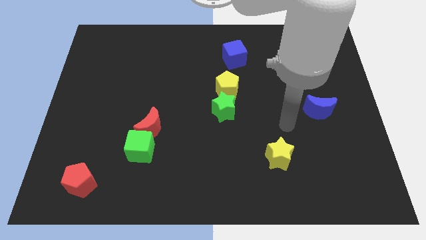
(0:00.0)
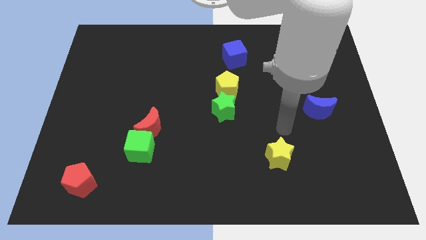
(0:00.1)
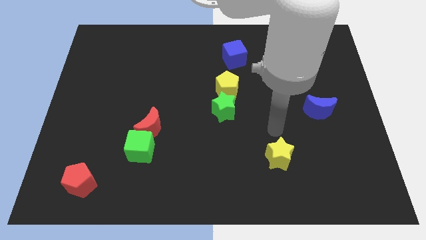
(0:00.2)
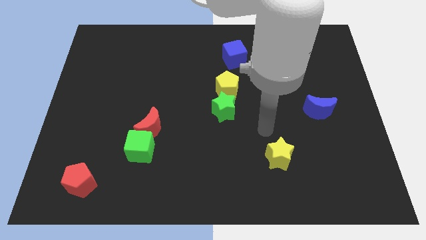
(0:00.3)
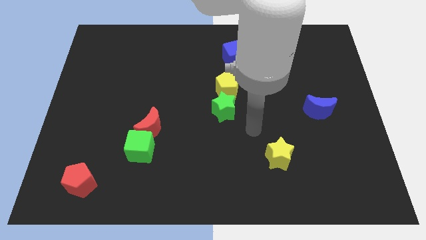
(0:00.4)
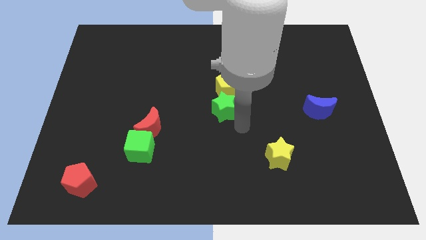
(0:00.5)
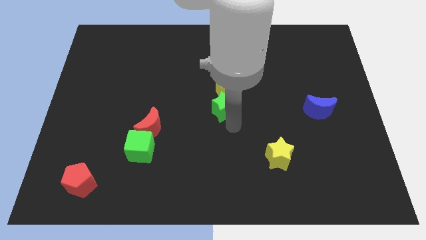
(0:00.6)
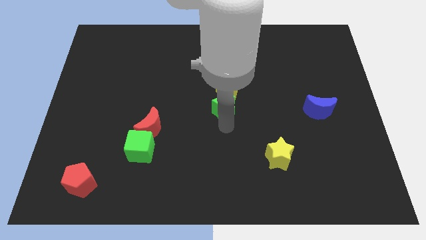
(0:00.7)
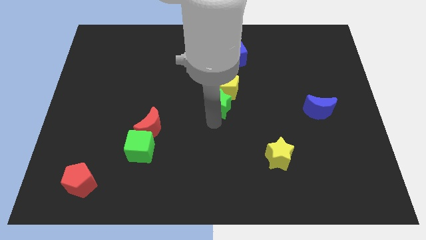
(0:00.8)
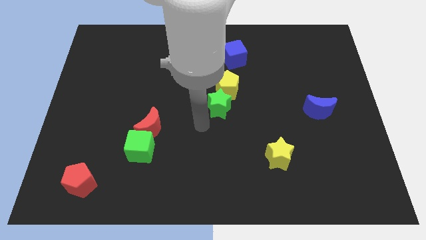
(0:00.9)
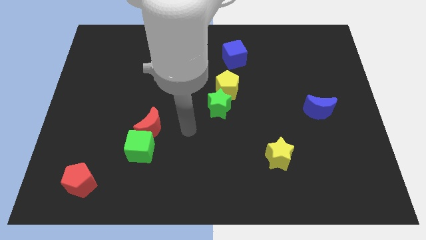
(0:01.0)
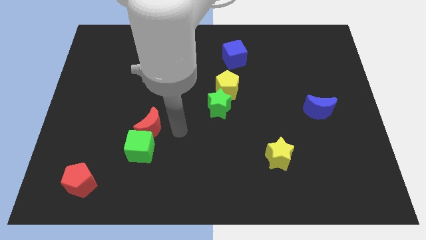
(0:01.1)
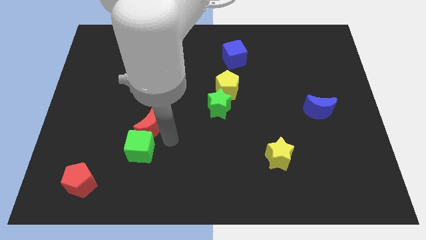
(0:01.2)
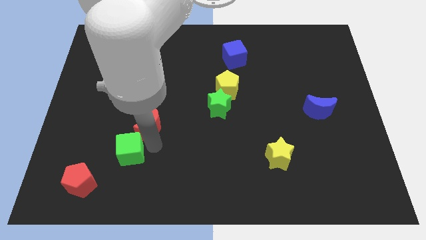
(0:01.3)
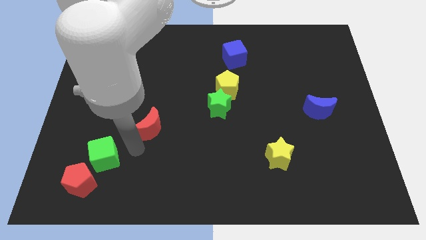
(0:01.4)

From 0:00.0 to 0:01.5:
move the red moon away from the green cube

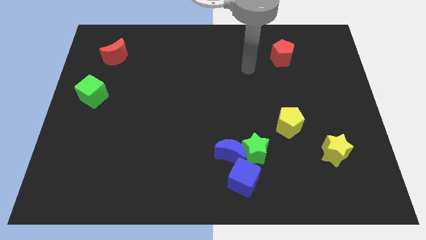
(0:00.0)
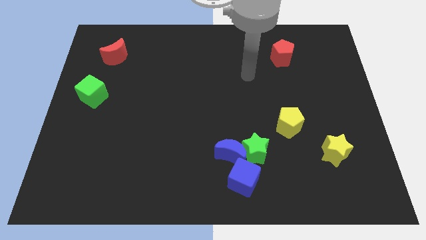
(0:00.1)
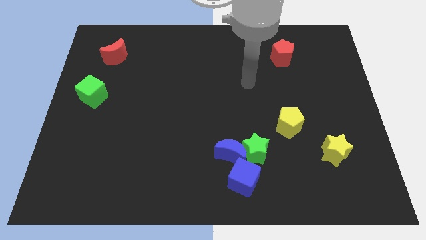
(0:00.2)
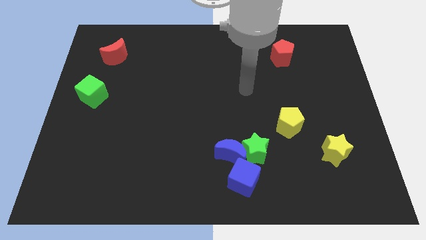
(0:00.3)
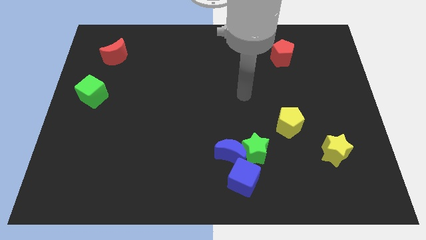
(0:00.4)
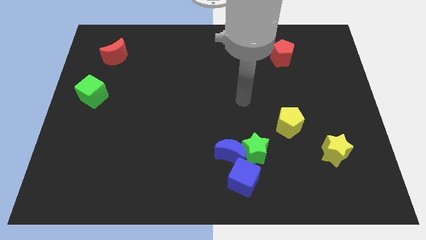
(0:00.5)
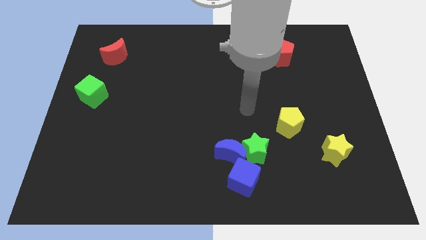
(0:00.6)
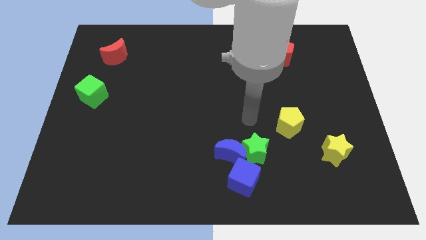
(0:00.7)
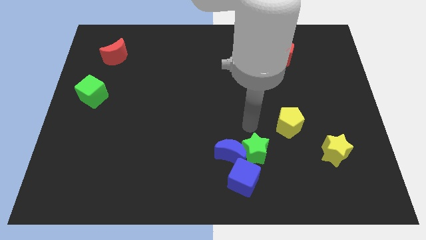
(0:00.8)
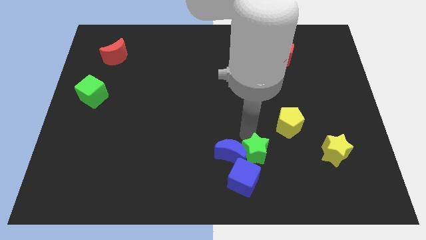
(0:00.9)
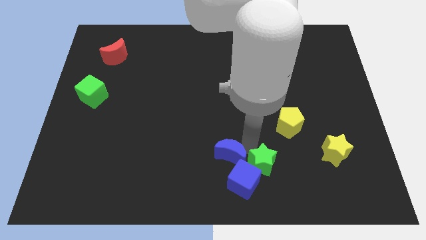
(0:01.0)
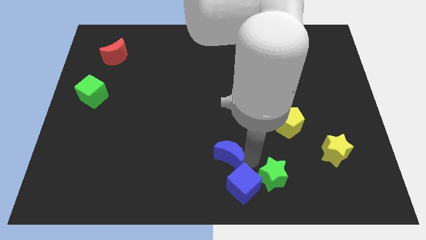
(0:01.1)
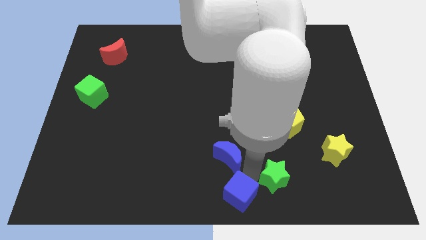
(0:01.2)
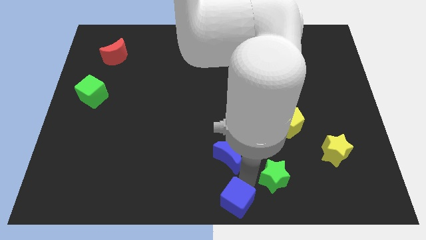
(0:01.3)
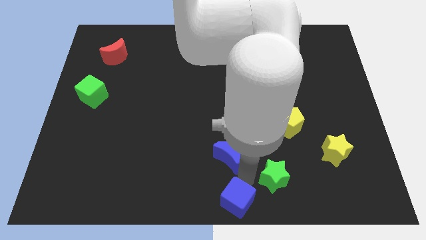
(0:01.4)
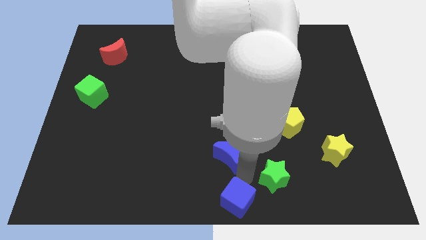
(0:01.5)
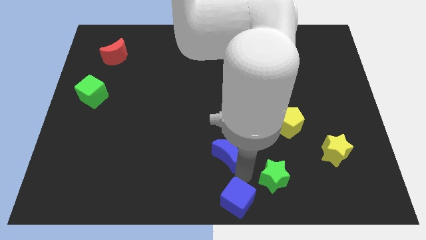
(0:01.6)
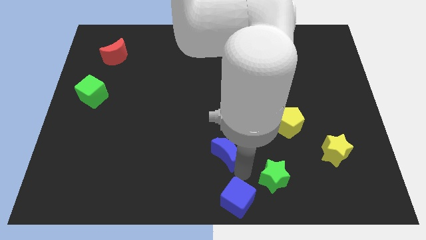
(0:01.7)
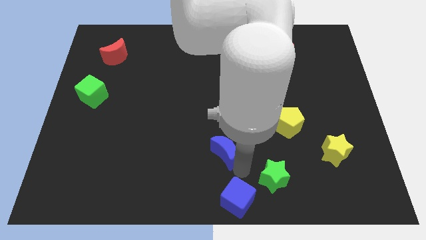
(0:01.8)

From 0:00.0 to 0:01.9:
separate the blue moon from the green star and blue cube

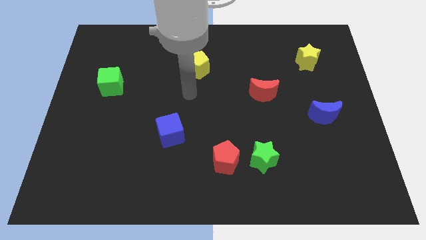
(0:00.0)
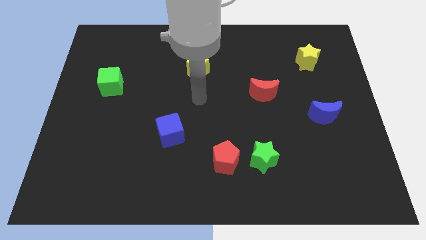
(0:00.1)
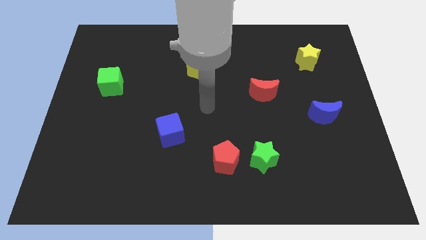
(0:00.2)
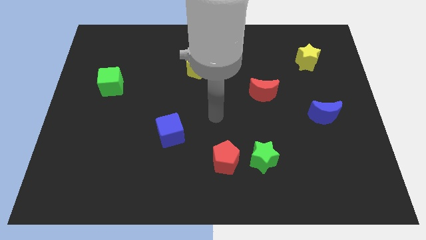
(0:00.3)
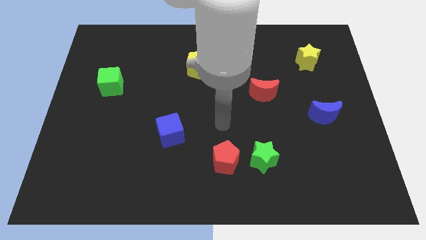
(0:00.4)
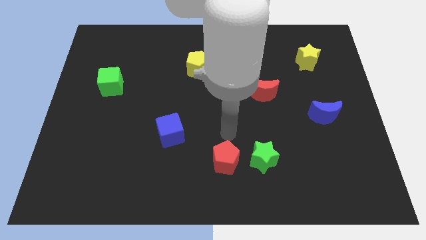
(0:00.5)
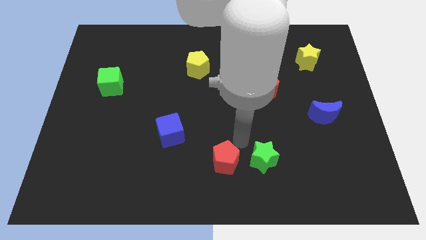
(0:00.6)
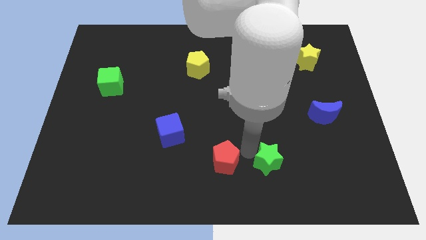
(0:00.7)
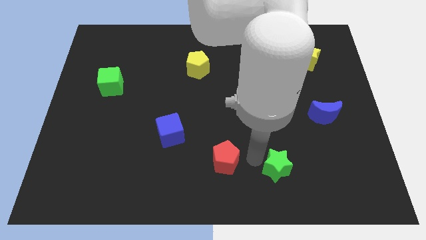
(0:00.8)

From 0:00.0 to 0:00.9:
pull the red pentagon apart from the green star

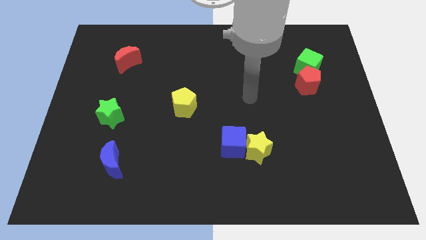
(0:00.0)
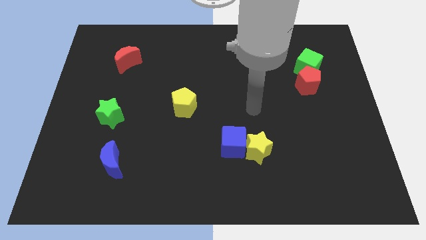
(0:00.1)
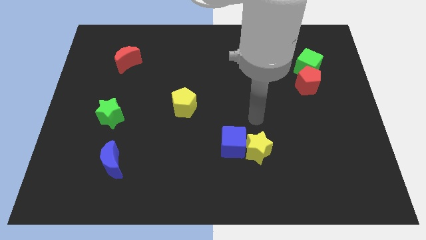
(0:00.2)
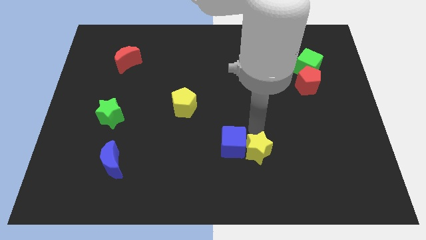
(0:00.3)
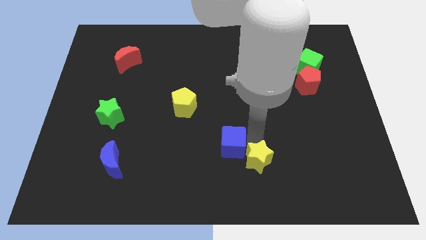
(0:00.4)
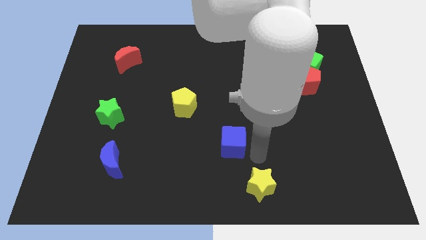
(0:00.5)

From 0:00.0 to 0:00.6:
pull the blue cube apart from the yellow star

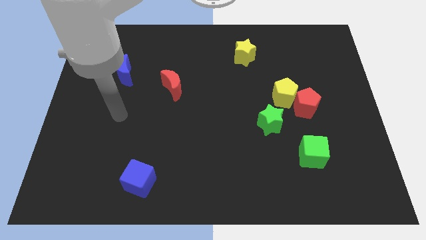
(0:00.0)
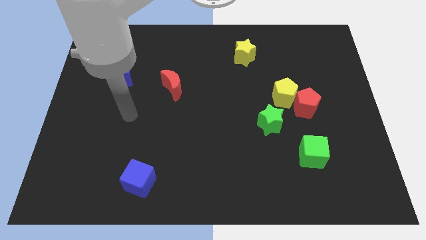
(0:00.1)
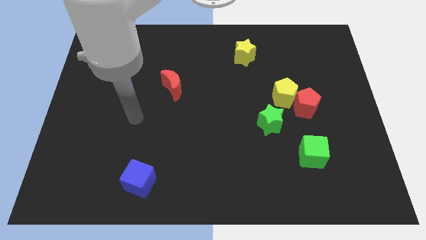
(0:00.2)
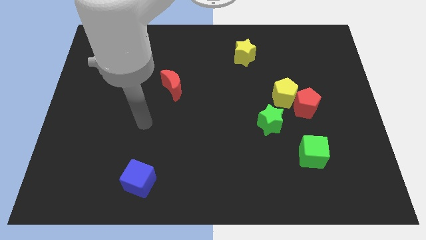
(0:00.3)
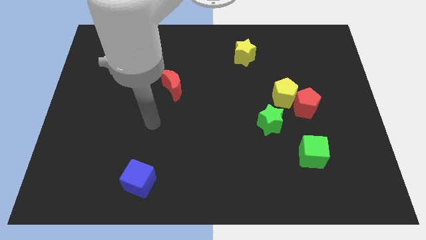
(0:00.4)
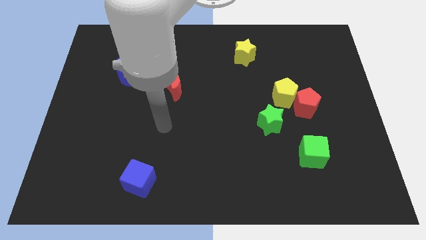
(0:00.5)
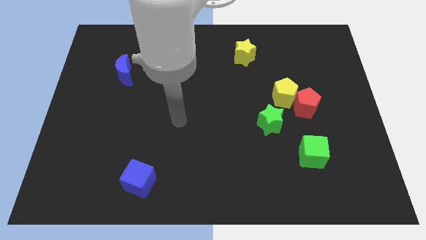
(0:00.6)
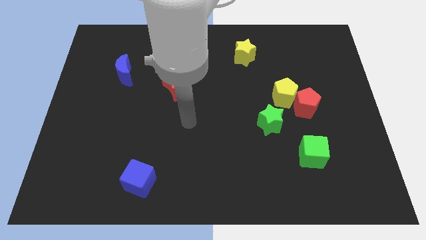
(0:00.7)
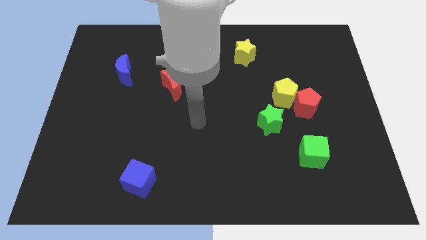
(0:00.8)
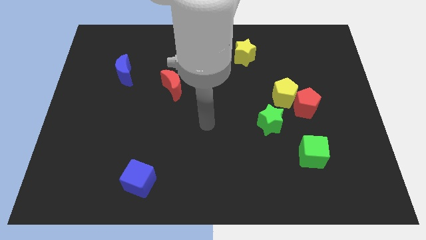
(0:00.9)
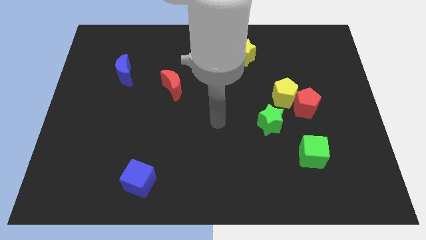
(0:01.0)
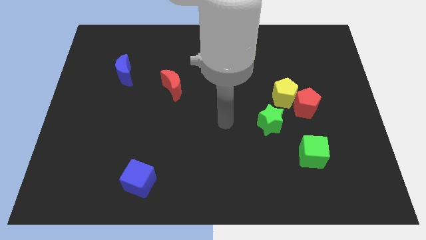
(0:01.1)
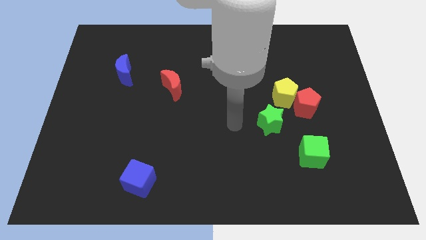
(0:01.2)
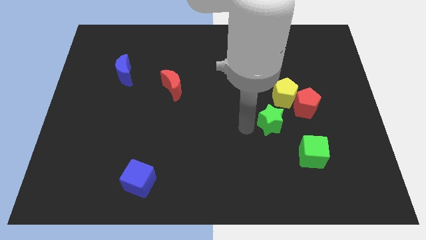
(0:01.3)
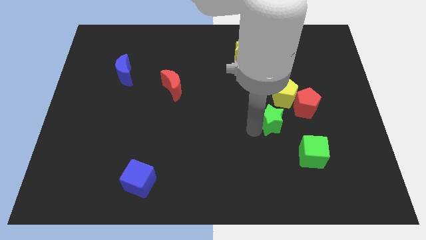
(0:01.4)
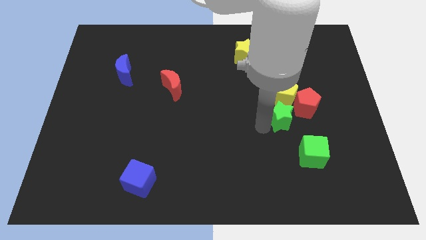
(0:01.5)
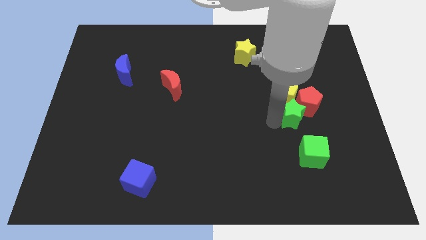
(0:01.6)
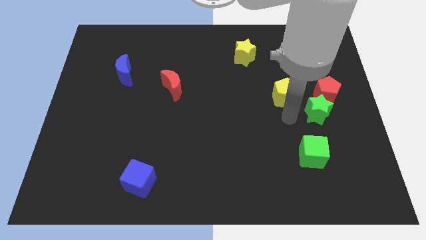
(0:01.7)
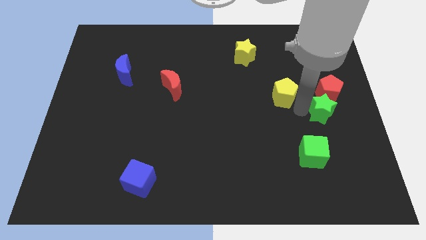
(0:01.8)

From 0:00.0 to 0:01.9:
pull the yellow pentagon apart from the red pentagon and green star

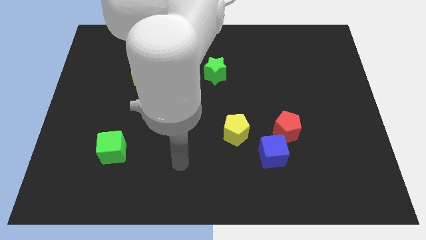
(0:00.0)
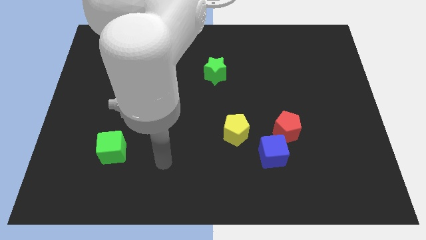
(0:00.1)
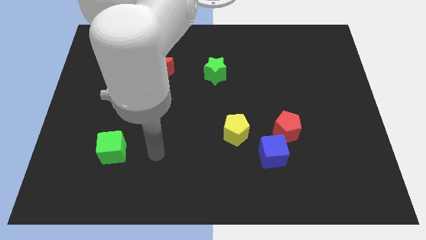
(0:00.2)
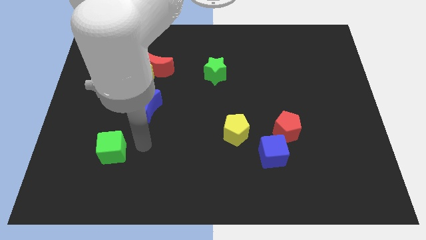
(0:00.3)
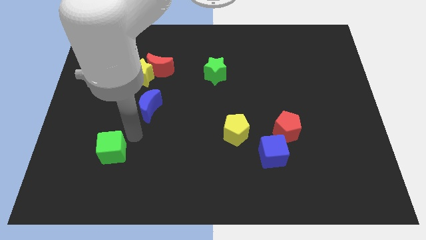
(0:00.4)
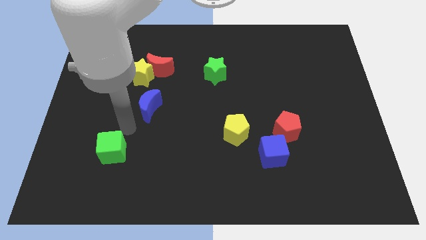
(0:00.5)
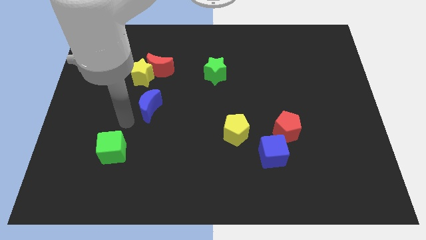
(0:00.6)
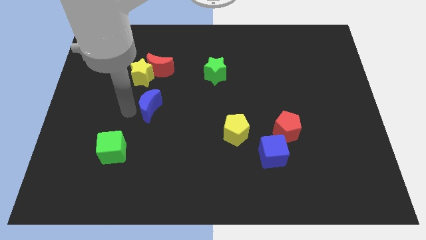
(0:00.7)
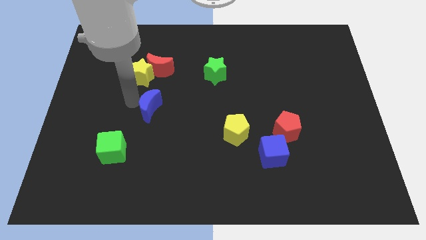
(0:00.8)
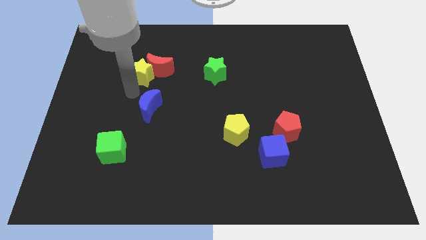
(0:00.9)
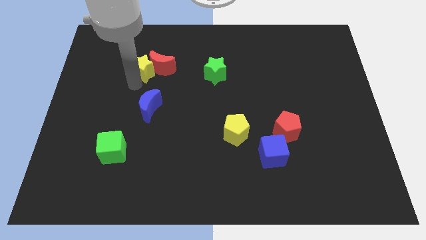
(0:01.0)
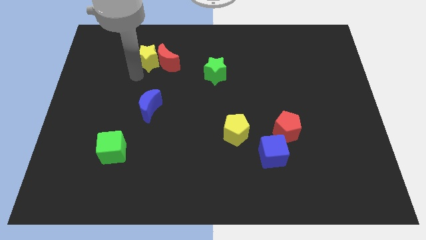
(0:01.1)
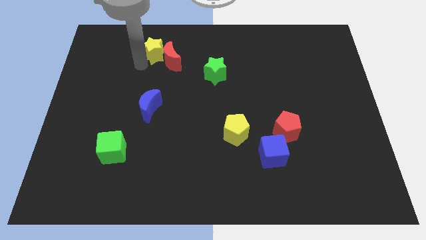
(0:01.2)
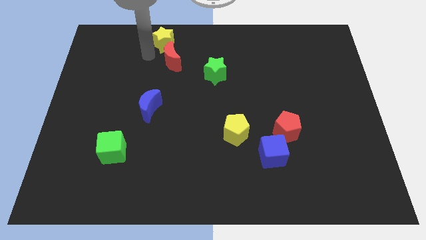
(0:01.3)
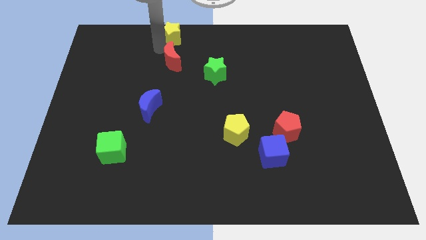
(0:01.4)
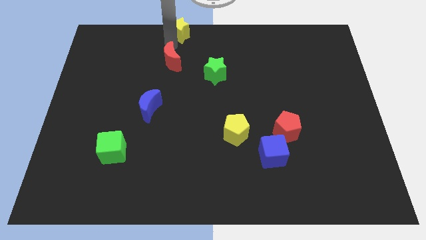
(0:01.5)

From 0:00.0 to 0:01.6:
separate the red moon from the yellow star

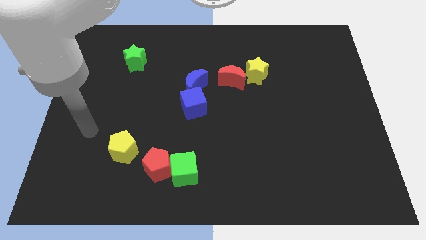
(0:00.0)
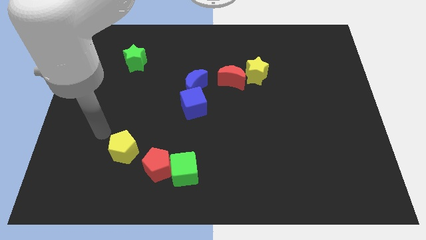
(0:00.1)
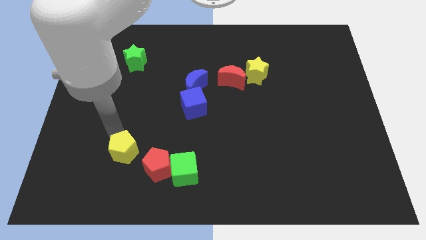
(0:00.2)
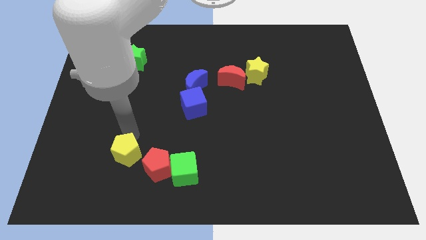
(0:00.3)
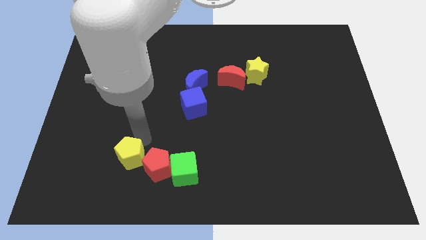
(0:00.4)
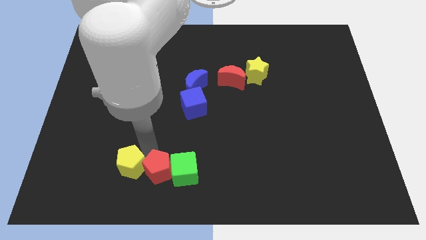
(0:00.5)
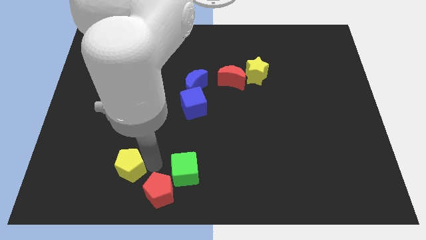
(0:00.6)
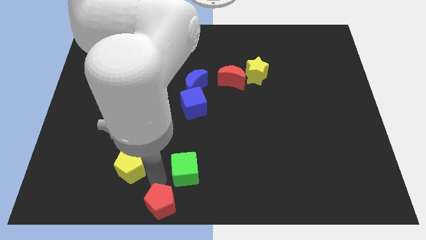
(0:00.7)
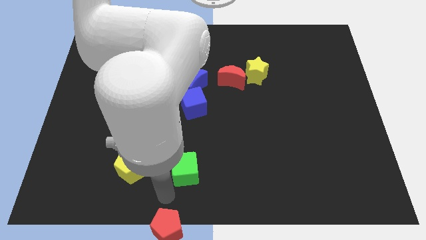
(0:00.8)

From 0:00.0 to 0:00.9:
pull the green cube apart from the red pentagon
